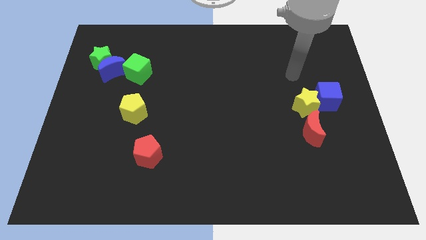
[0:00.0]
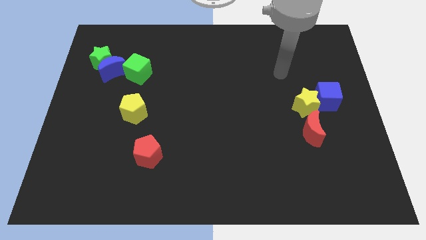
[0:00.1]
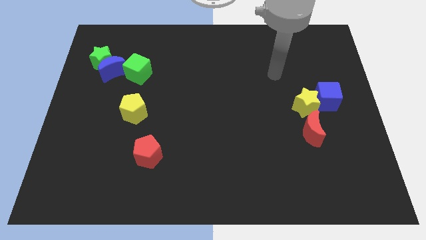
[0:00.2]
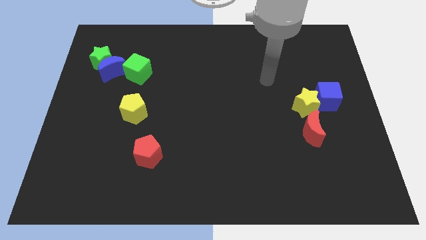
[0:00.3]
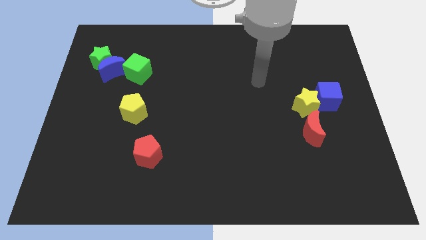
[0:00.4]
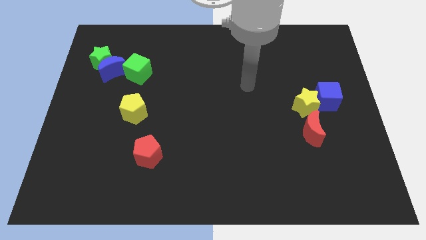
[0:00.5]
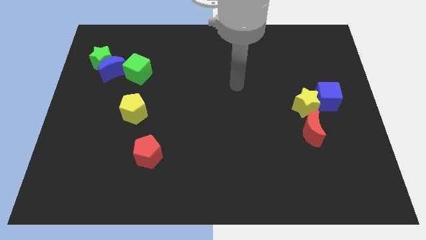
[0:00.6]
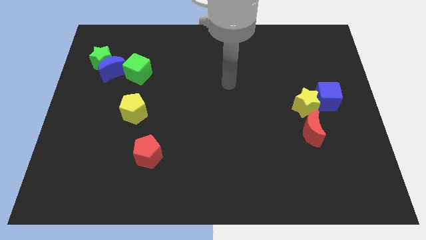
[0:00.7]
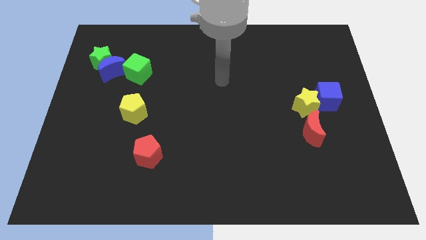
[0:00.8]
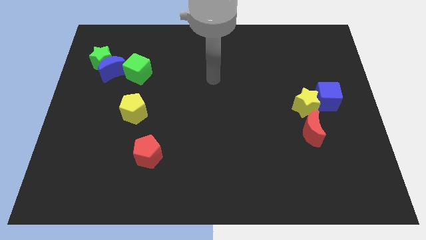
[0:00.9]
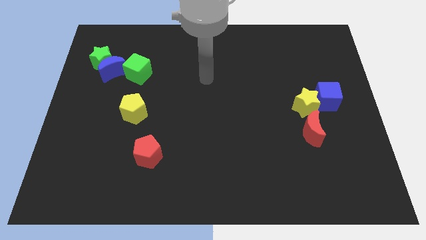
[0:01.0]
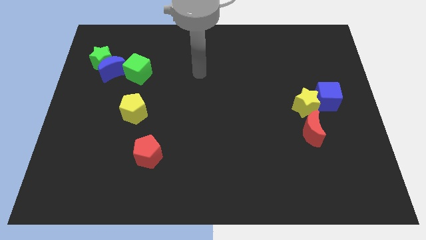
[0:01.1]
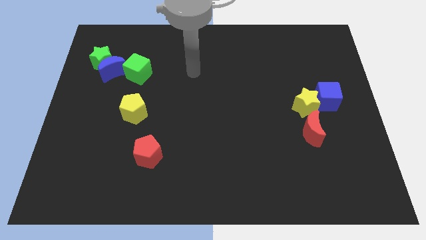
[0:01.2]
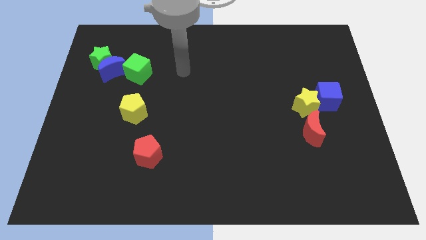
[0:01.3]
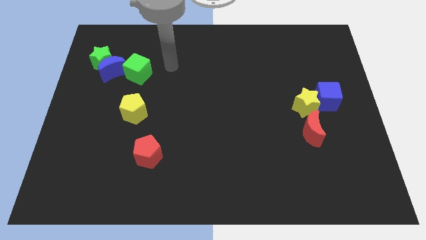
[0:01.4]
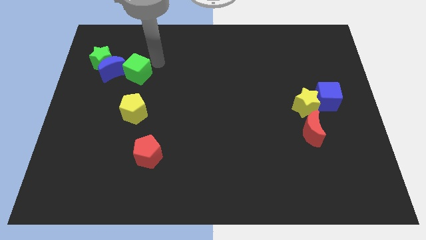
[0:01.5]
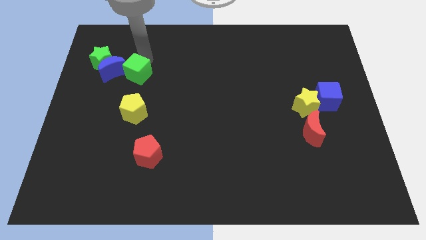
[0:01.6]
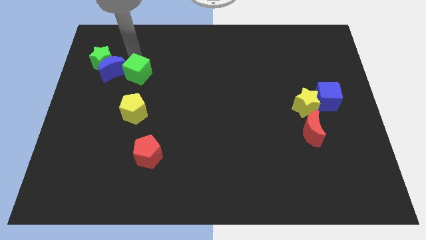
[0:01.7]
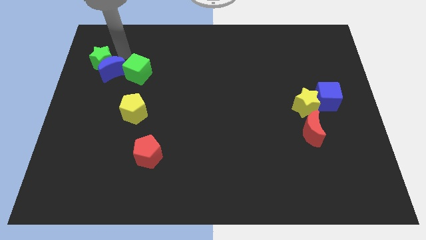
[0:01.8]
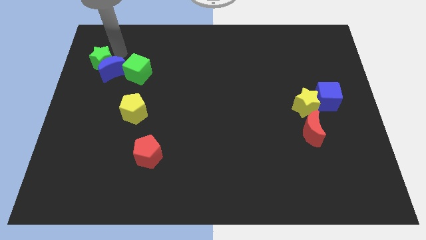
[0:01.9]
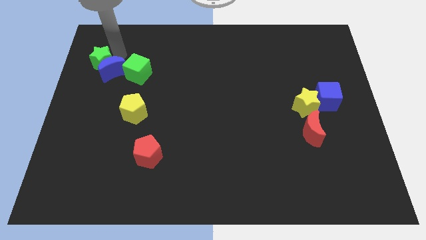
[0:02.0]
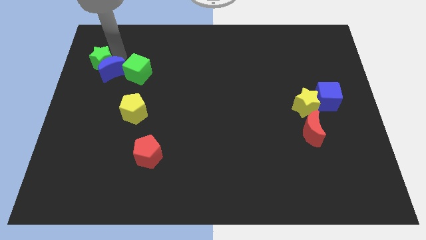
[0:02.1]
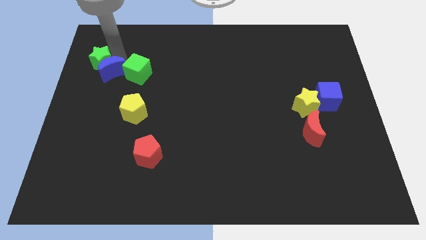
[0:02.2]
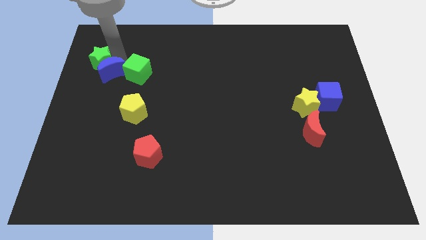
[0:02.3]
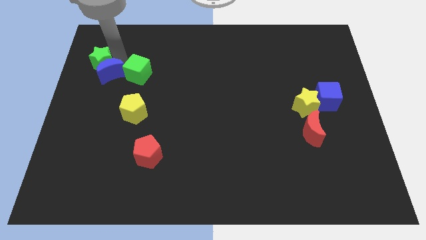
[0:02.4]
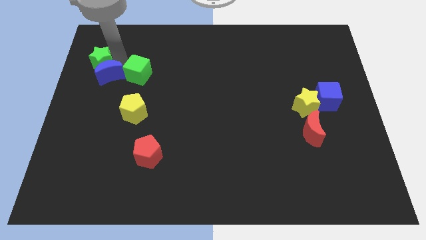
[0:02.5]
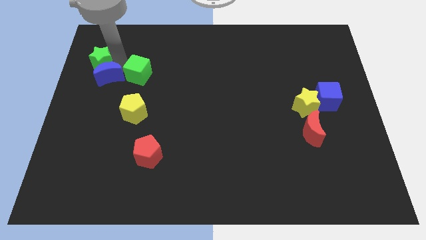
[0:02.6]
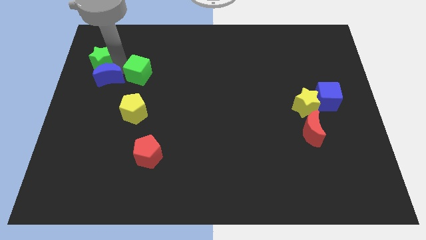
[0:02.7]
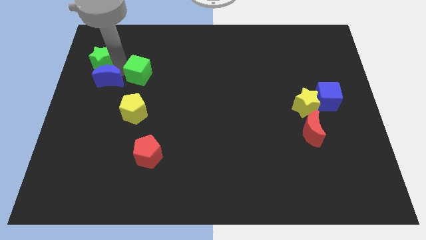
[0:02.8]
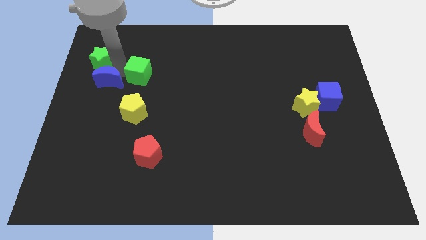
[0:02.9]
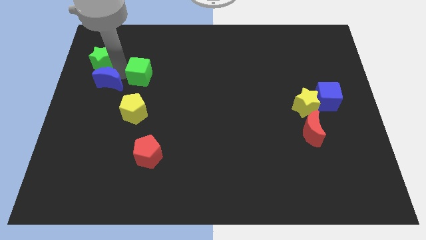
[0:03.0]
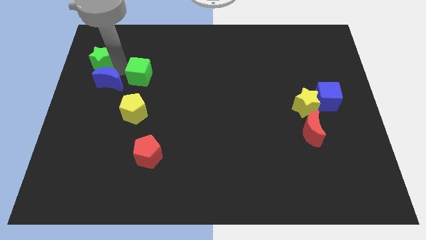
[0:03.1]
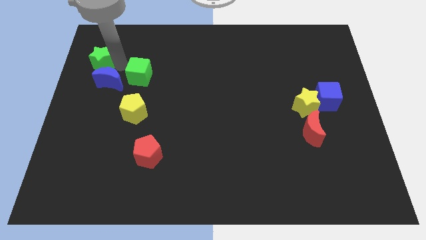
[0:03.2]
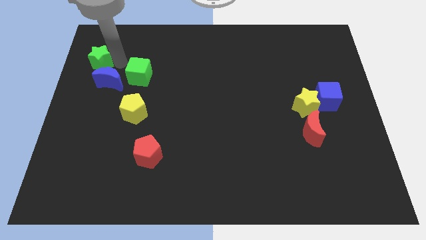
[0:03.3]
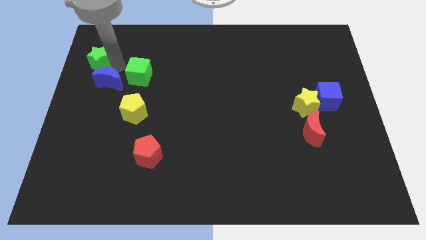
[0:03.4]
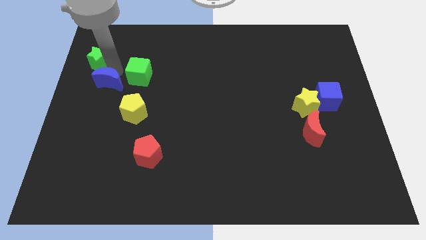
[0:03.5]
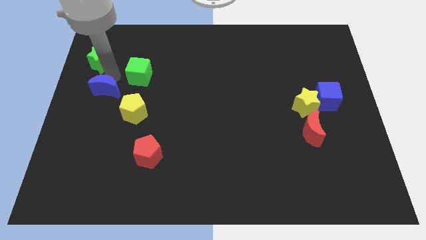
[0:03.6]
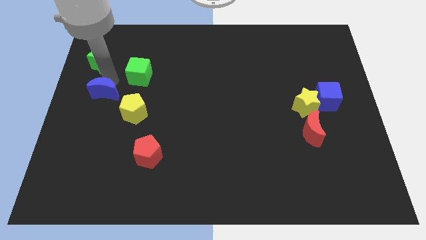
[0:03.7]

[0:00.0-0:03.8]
push the blue moon somewhat down

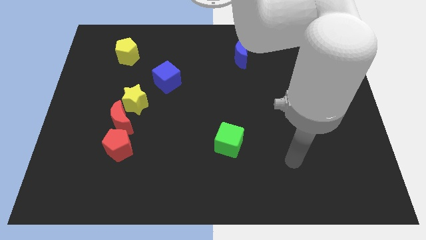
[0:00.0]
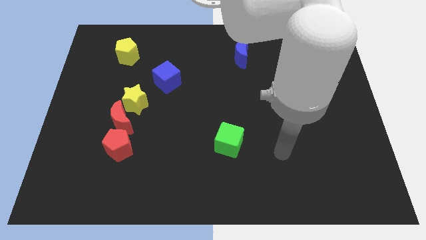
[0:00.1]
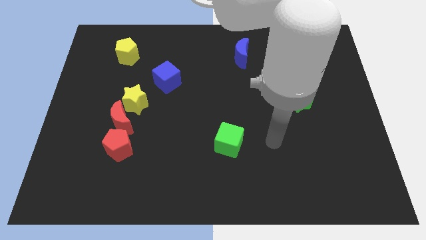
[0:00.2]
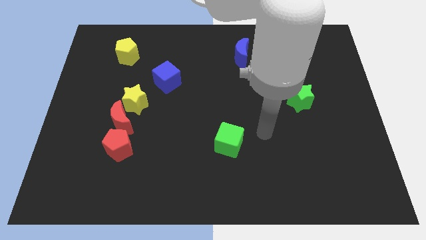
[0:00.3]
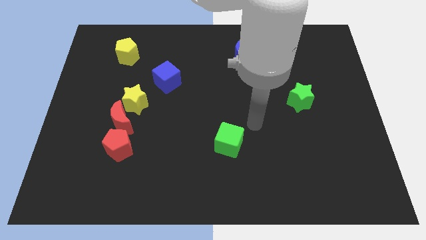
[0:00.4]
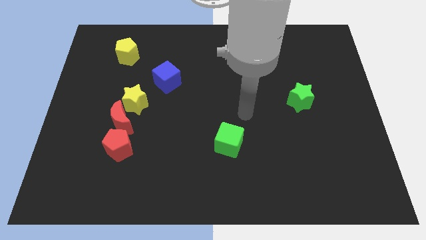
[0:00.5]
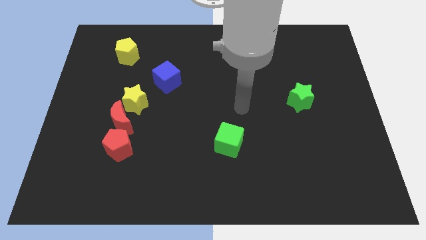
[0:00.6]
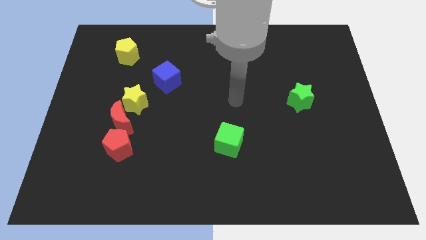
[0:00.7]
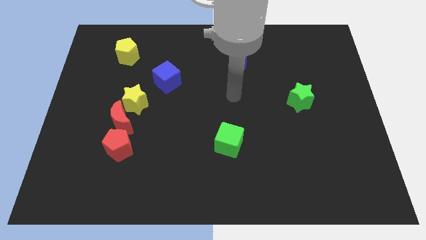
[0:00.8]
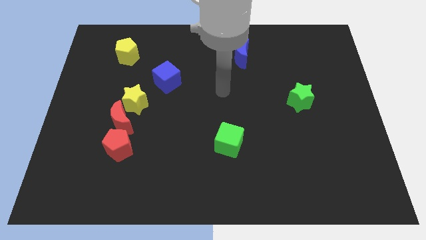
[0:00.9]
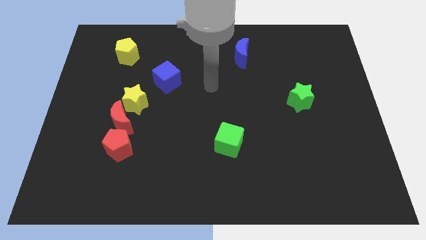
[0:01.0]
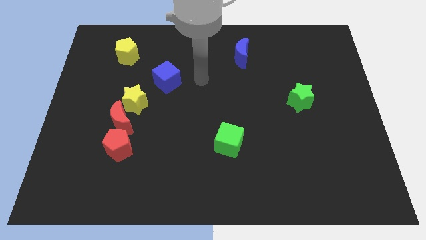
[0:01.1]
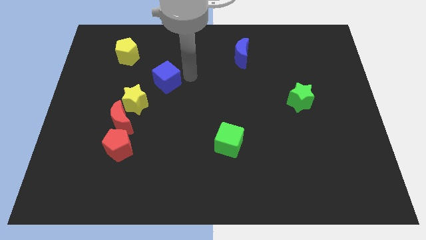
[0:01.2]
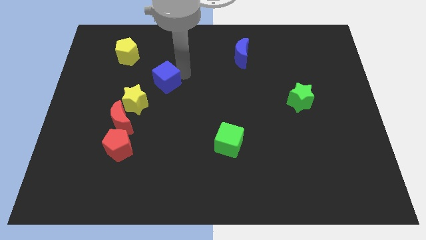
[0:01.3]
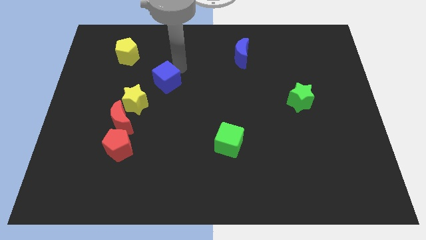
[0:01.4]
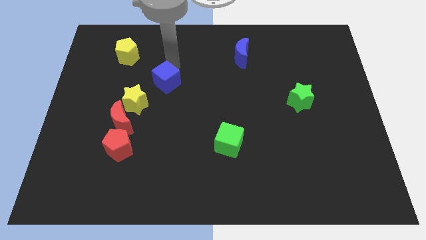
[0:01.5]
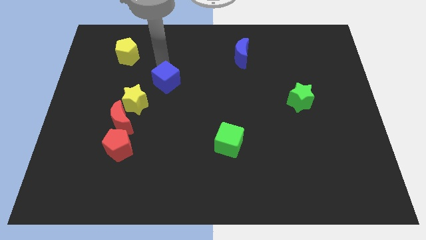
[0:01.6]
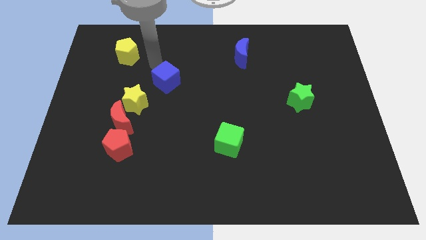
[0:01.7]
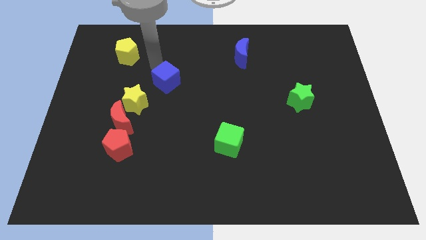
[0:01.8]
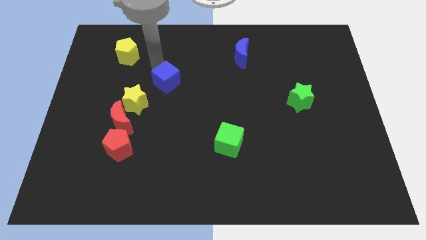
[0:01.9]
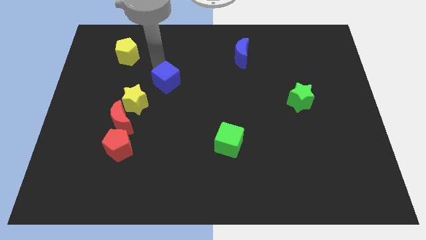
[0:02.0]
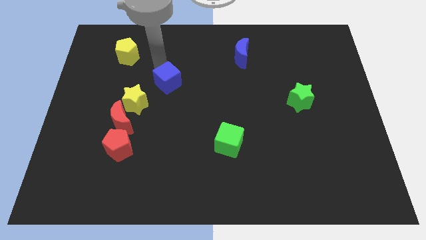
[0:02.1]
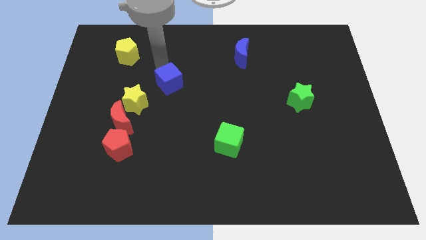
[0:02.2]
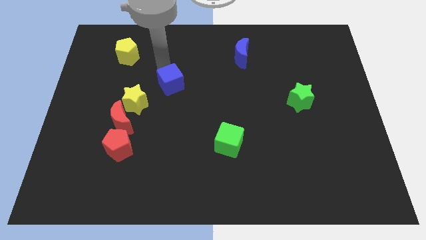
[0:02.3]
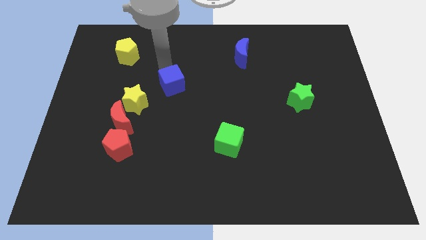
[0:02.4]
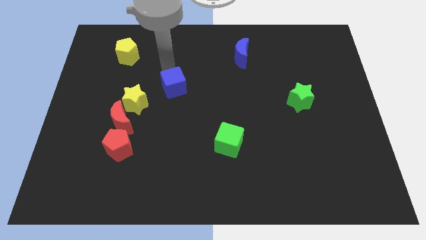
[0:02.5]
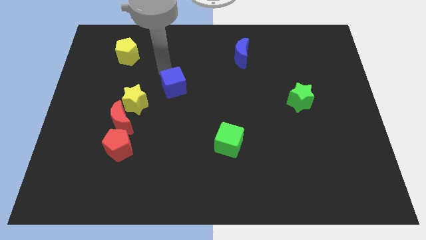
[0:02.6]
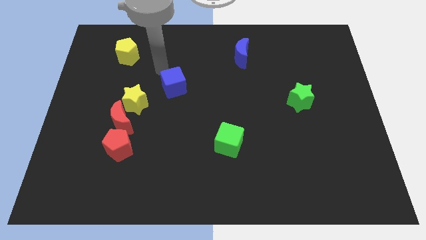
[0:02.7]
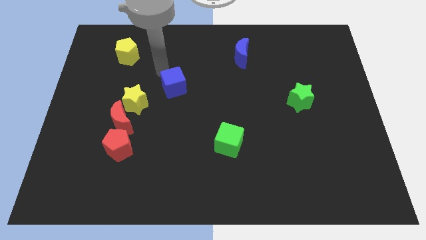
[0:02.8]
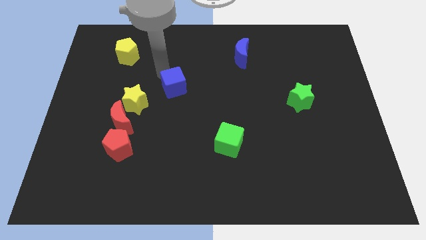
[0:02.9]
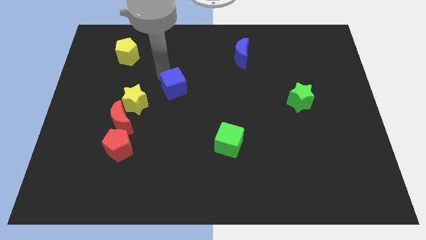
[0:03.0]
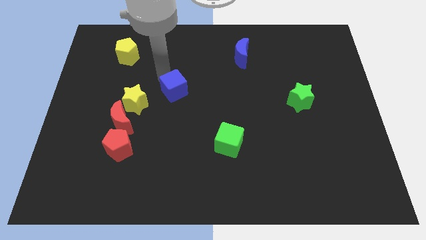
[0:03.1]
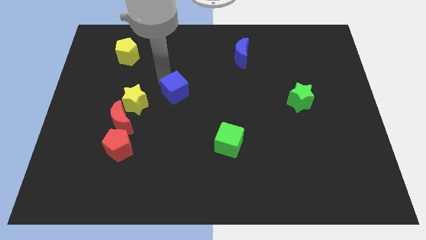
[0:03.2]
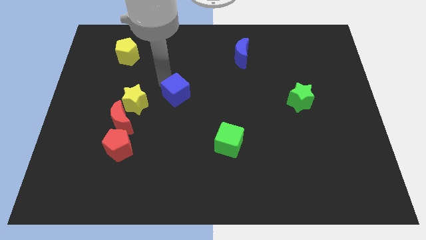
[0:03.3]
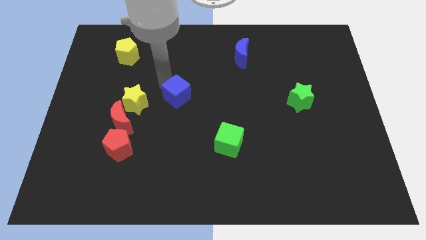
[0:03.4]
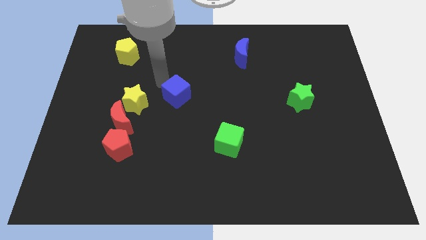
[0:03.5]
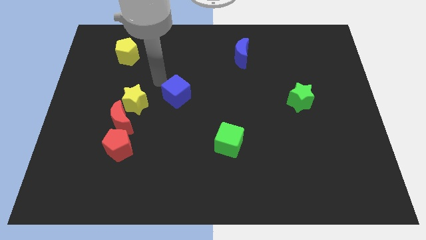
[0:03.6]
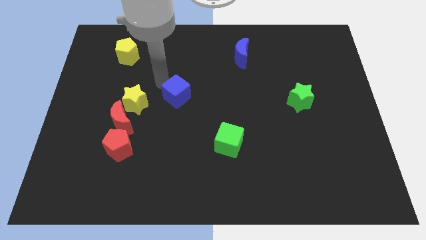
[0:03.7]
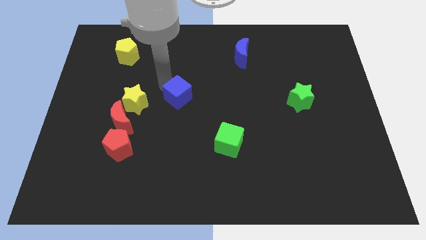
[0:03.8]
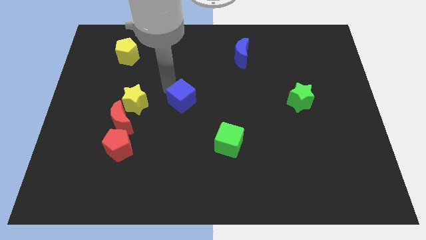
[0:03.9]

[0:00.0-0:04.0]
slightly move the blue cube diagonally down and right
